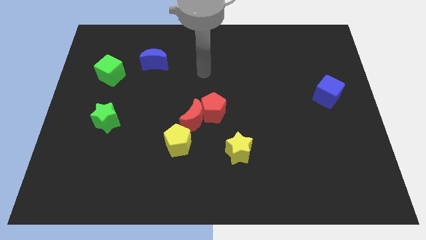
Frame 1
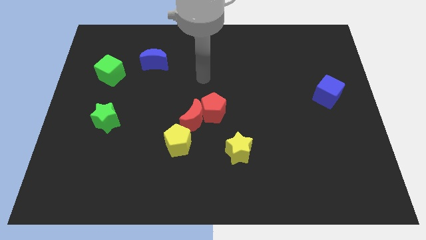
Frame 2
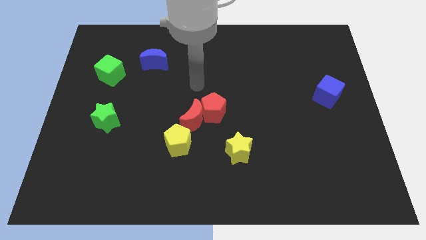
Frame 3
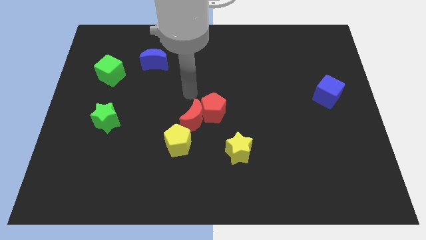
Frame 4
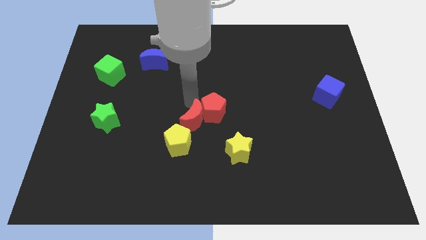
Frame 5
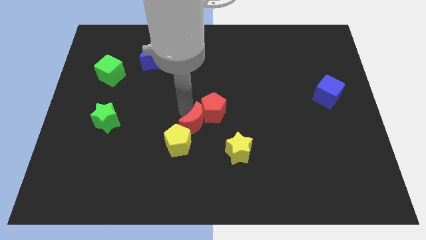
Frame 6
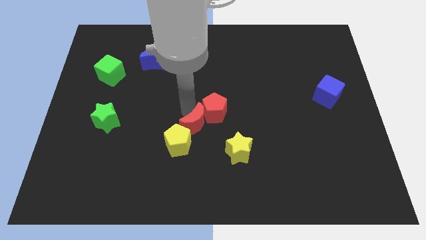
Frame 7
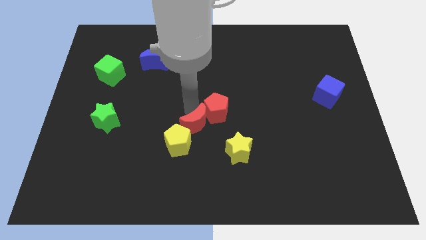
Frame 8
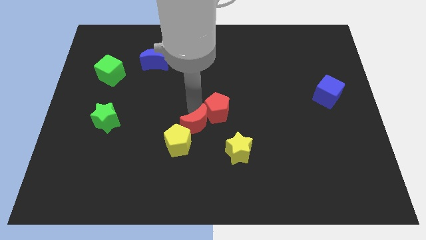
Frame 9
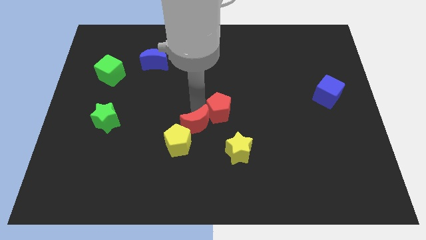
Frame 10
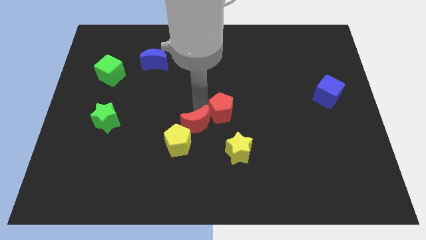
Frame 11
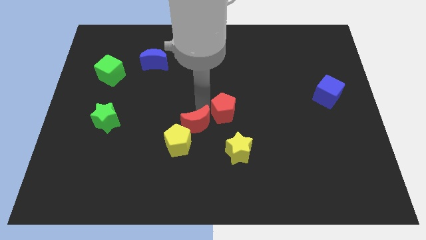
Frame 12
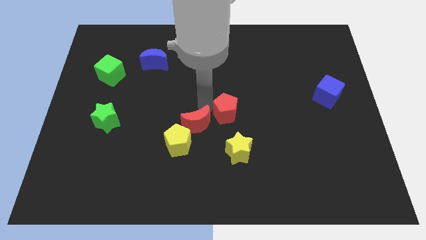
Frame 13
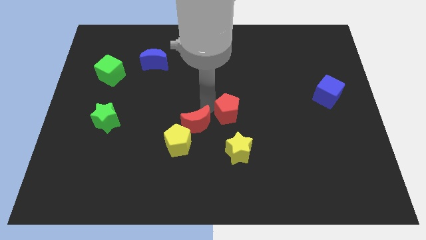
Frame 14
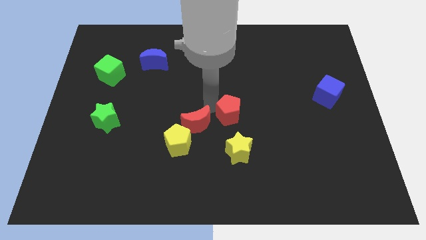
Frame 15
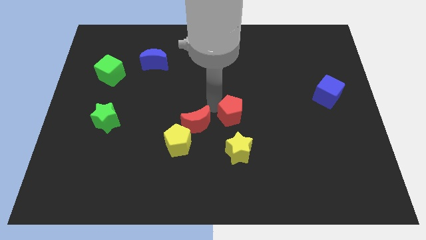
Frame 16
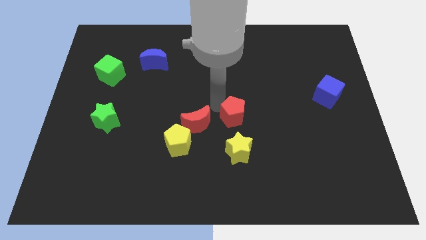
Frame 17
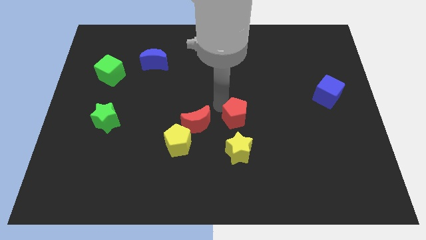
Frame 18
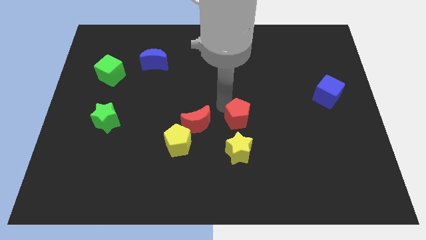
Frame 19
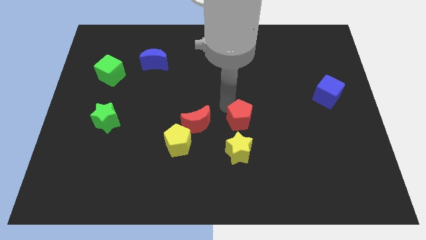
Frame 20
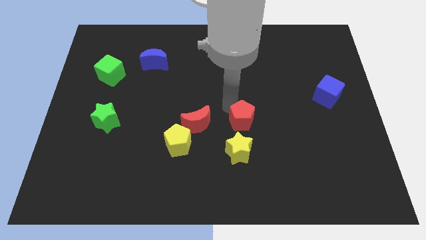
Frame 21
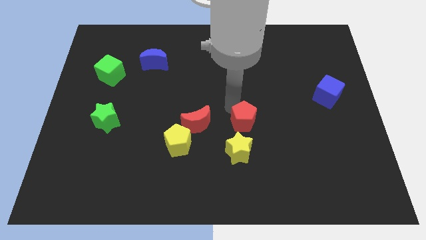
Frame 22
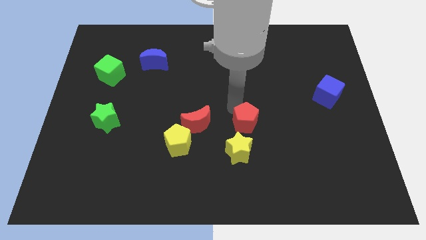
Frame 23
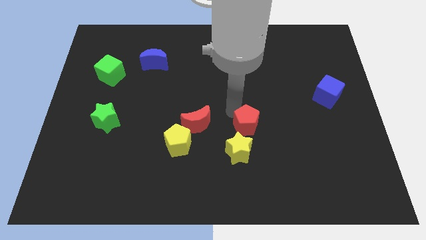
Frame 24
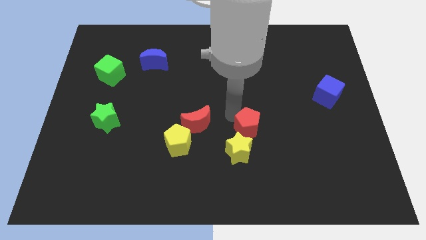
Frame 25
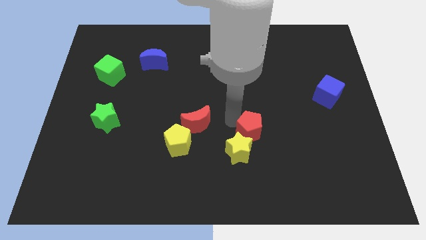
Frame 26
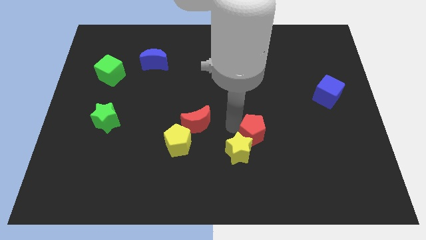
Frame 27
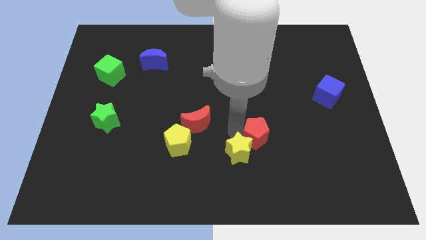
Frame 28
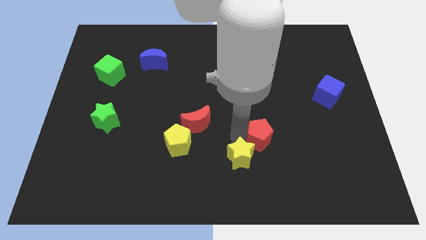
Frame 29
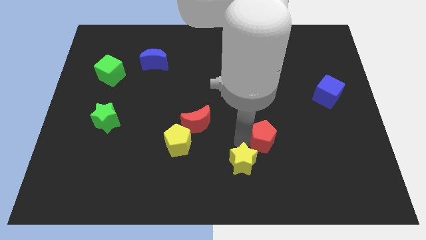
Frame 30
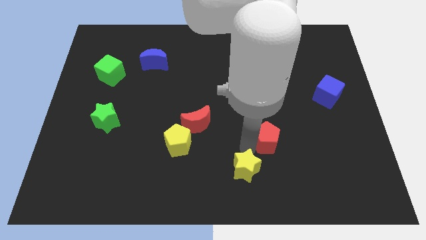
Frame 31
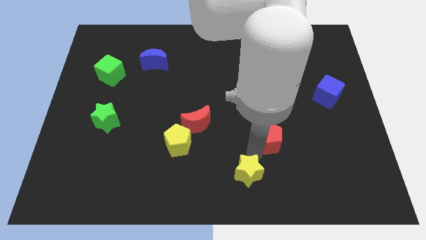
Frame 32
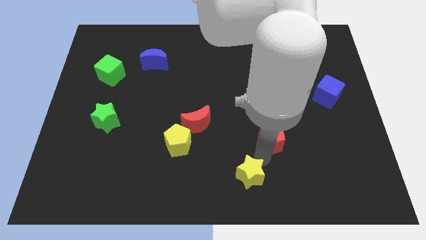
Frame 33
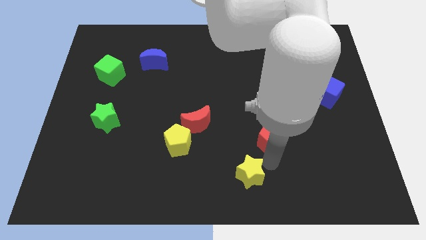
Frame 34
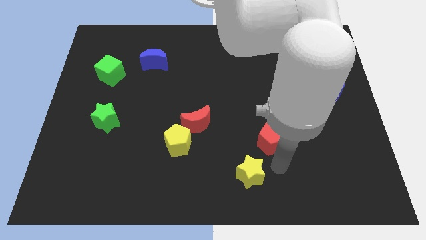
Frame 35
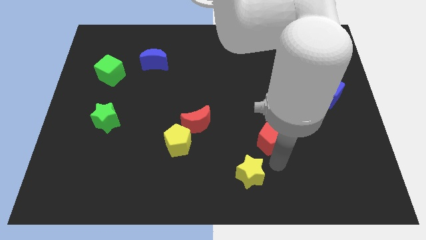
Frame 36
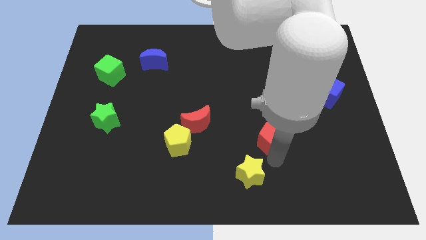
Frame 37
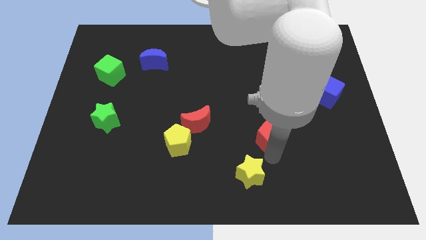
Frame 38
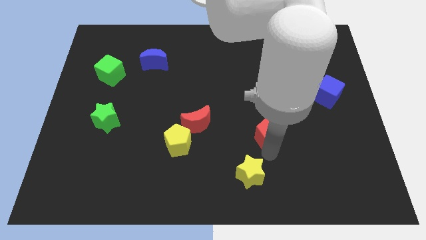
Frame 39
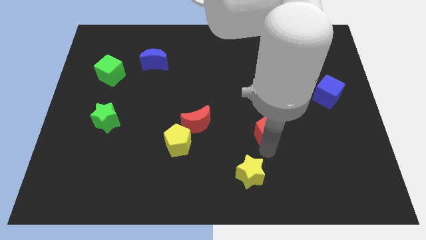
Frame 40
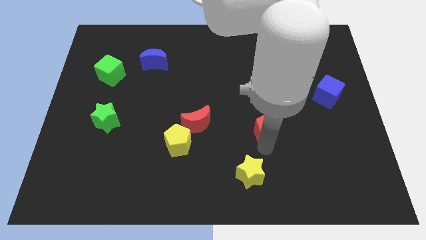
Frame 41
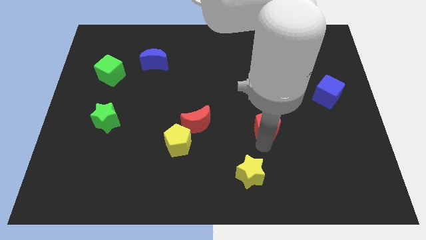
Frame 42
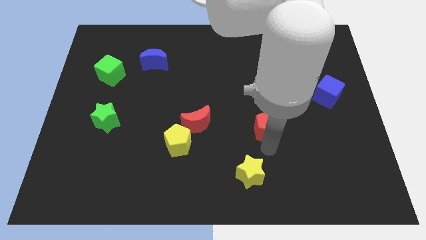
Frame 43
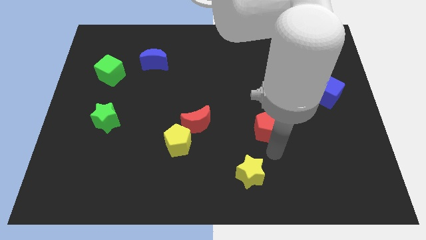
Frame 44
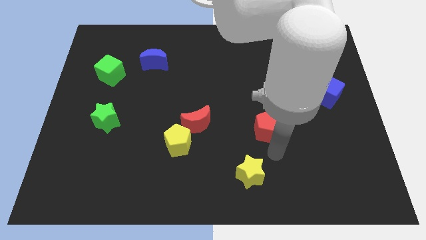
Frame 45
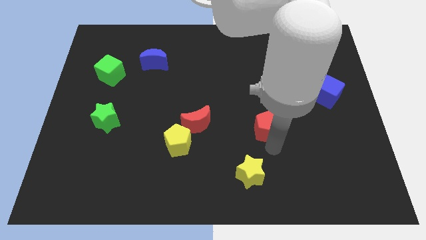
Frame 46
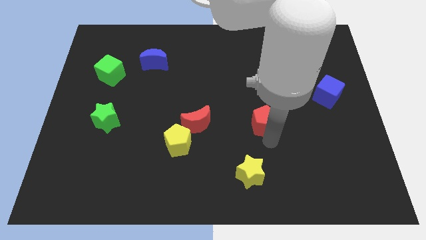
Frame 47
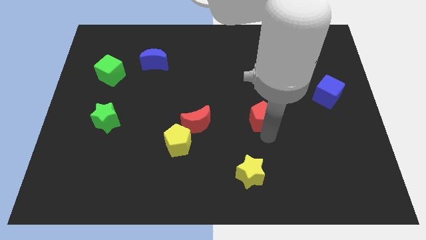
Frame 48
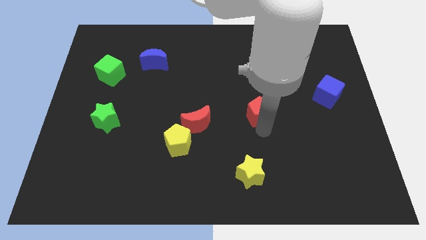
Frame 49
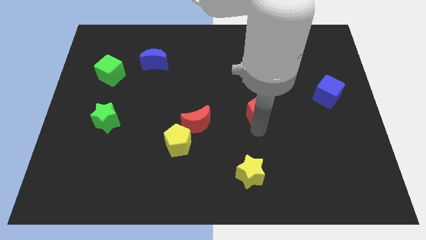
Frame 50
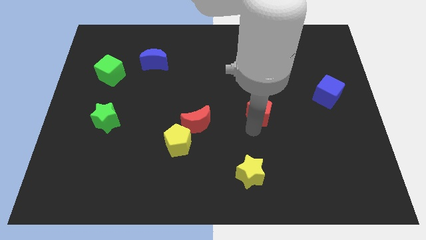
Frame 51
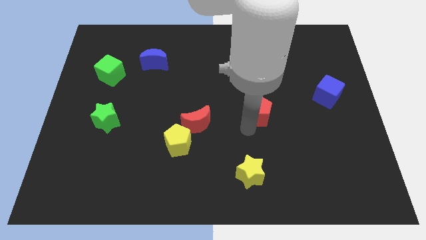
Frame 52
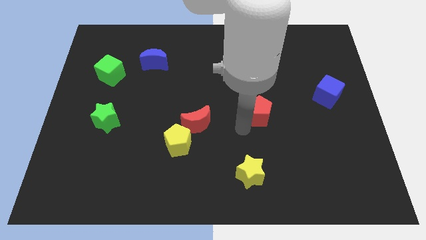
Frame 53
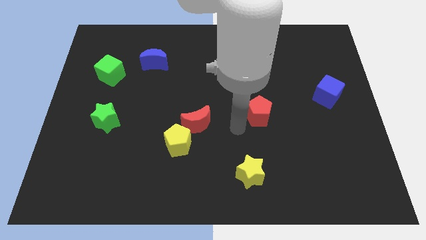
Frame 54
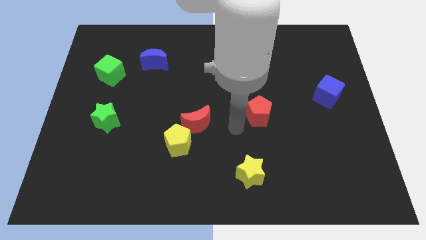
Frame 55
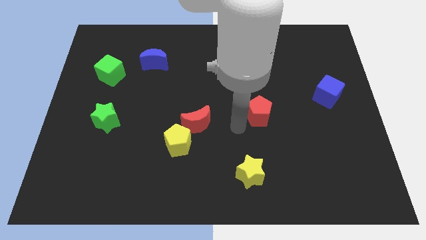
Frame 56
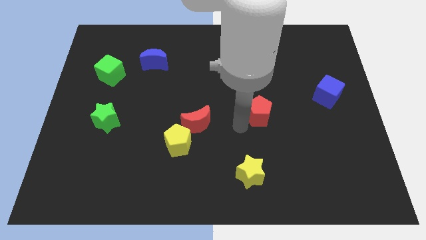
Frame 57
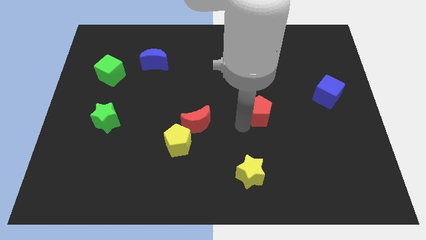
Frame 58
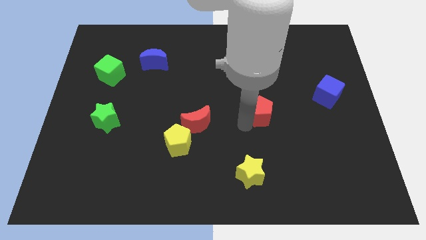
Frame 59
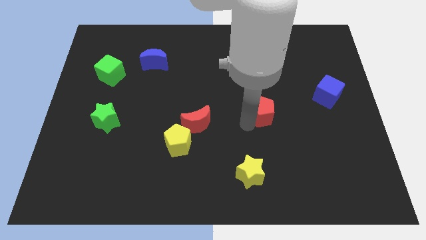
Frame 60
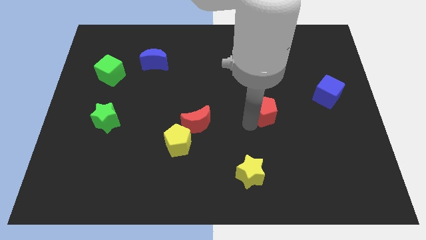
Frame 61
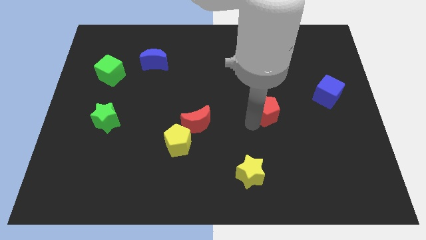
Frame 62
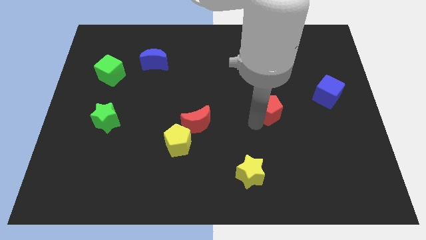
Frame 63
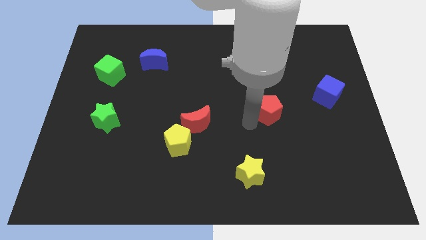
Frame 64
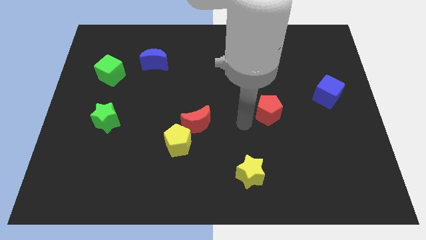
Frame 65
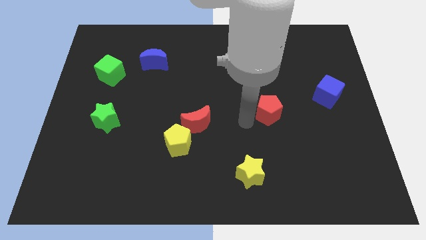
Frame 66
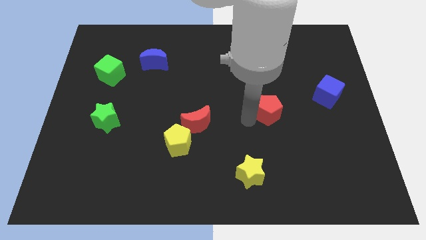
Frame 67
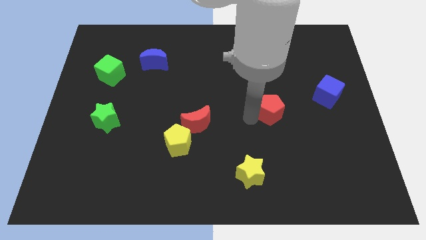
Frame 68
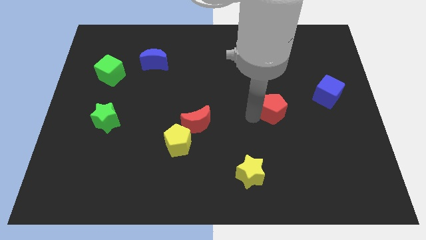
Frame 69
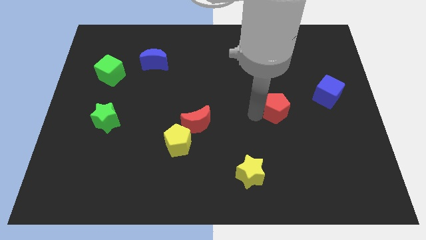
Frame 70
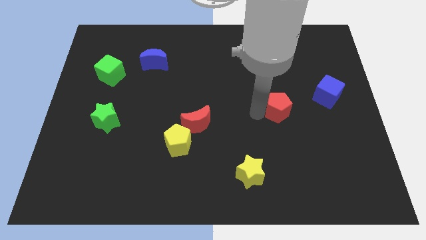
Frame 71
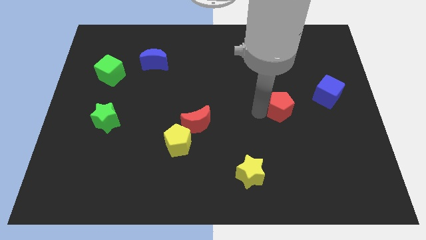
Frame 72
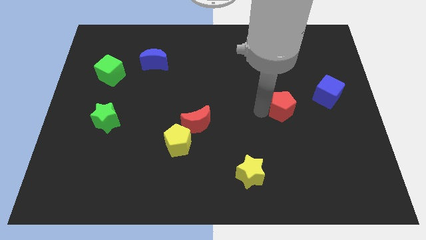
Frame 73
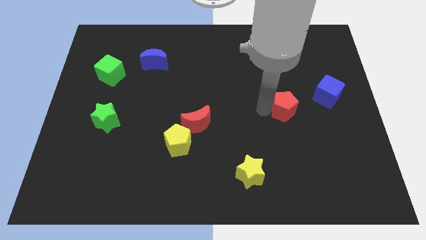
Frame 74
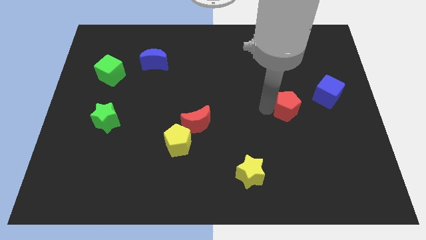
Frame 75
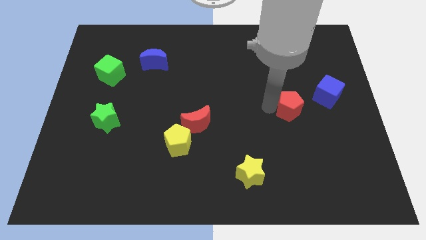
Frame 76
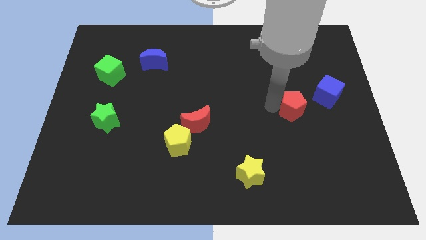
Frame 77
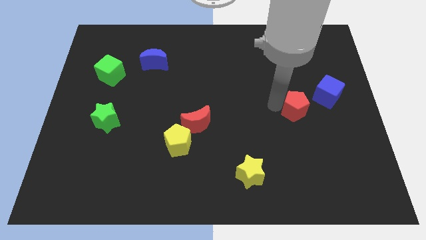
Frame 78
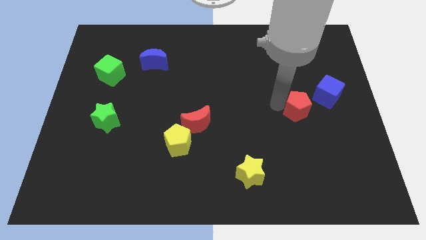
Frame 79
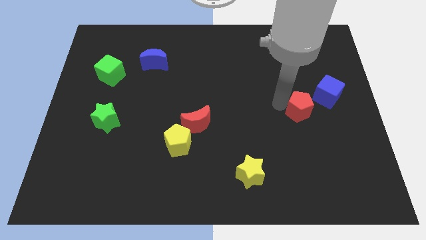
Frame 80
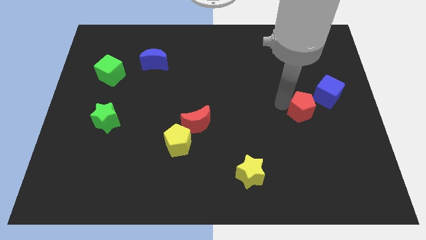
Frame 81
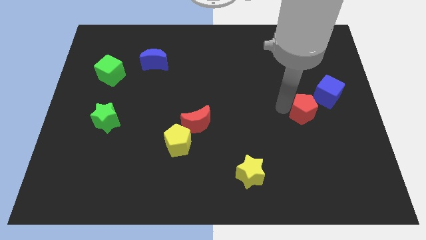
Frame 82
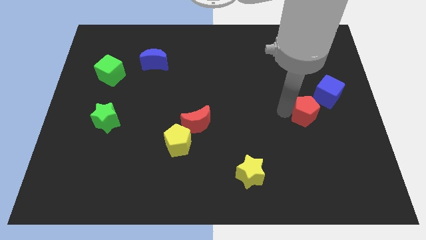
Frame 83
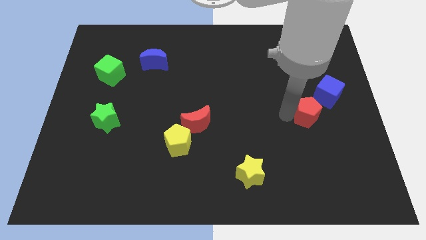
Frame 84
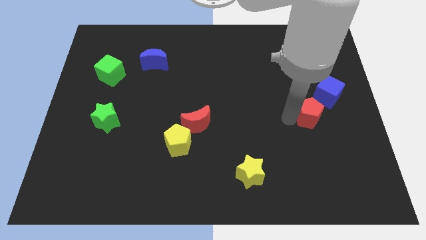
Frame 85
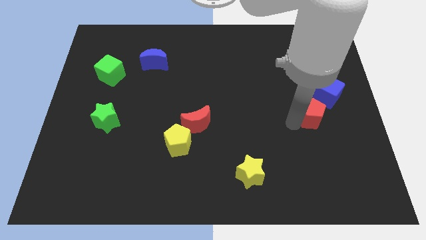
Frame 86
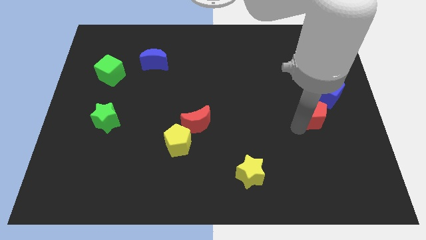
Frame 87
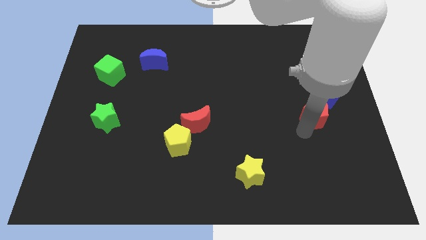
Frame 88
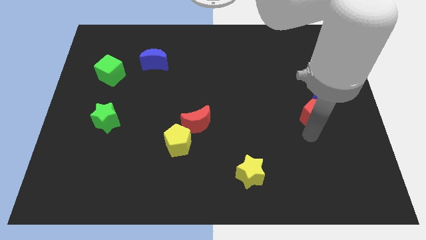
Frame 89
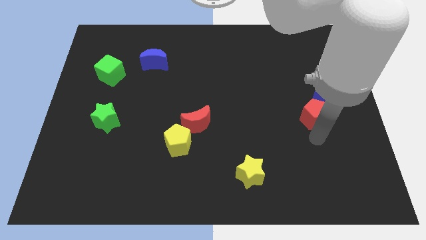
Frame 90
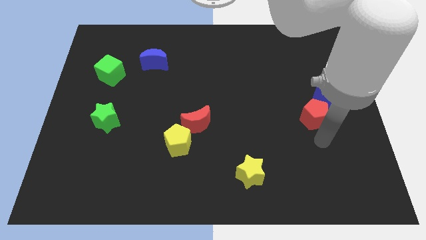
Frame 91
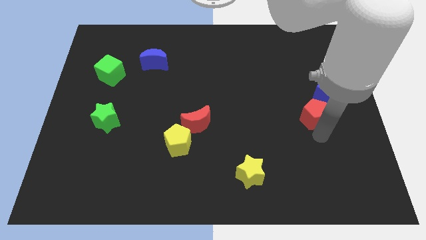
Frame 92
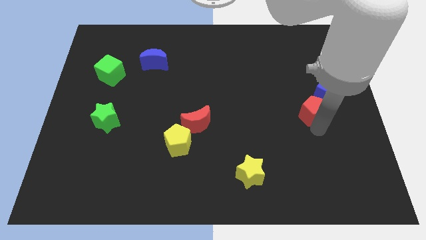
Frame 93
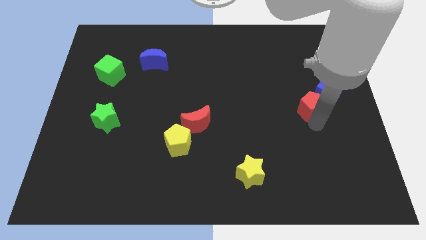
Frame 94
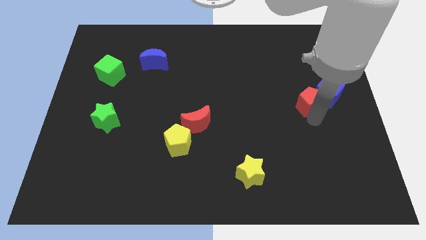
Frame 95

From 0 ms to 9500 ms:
move the red pentagon close to the blue cube
